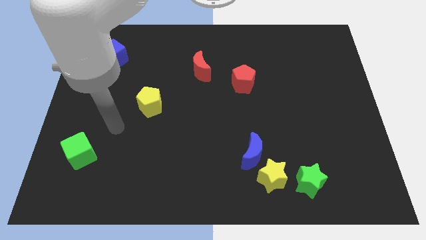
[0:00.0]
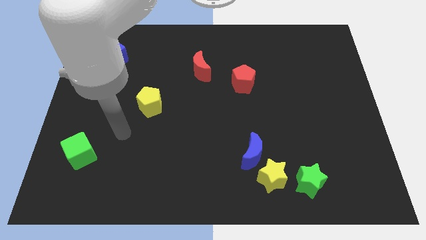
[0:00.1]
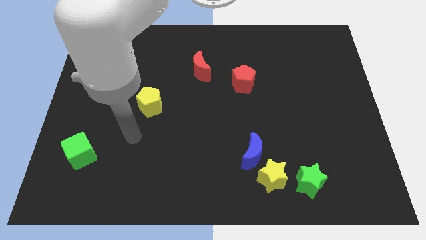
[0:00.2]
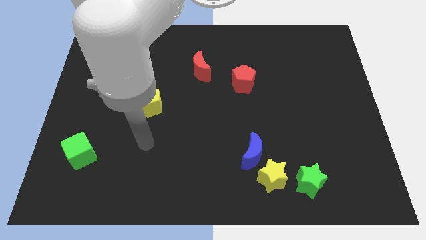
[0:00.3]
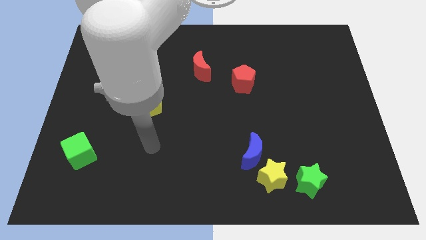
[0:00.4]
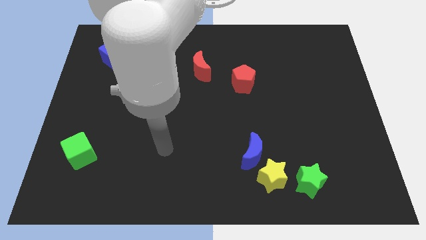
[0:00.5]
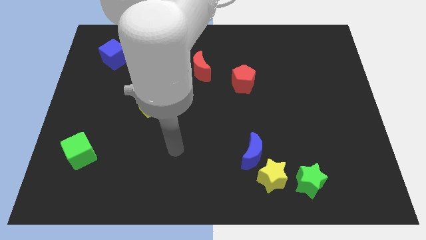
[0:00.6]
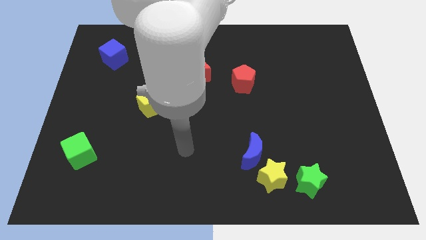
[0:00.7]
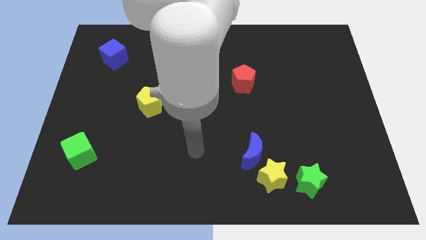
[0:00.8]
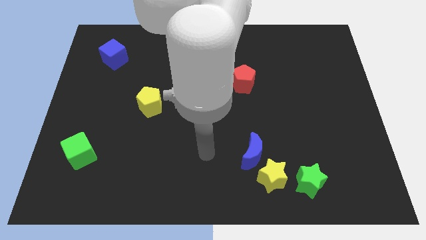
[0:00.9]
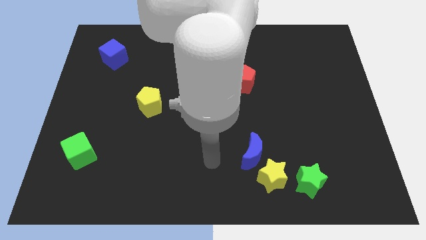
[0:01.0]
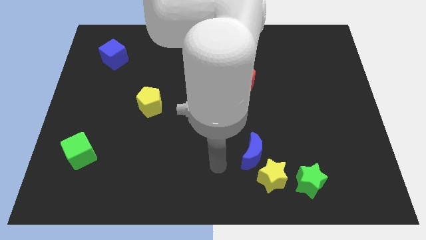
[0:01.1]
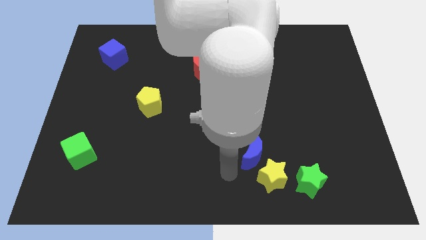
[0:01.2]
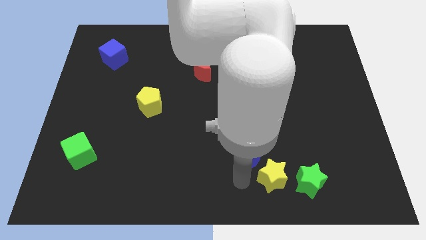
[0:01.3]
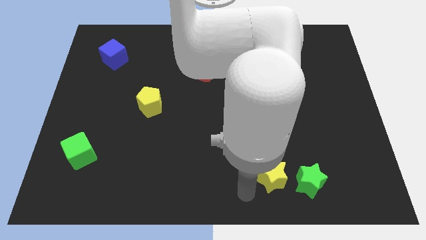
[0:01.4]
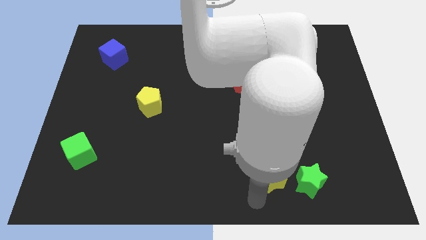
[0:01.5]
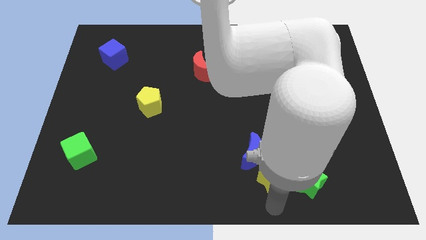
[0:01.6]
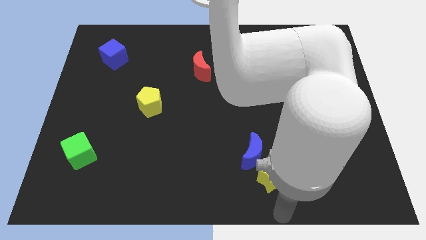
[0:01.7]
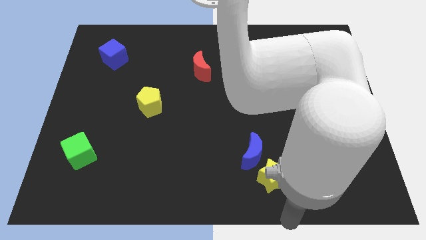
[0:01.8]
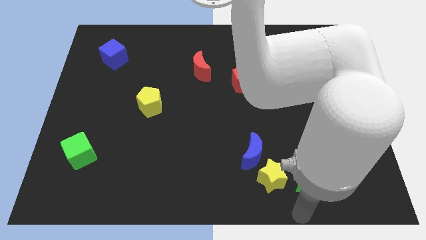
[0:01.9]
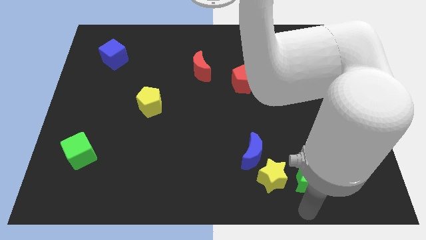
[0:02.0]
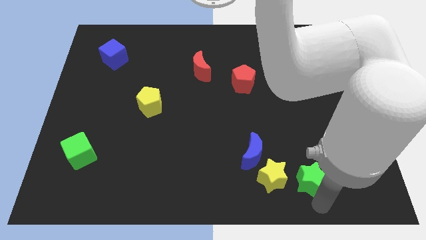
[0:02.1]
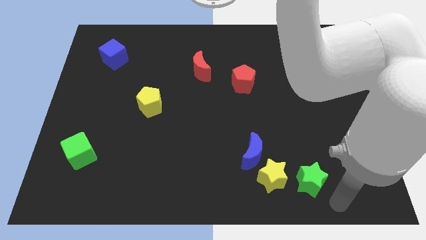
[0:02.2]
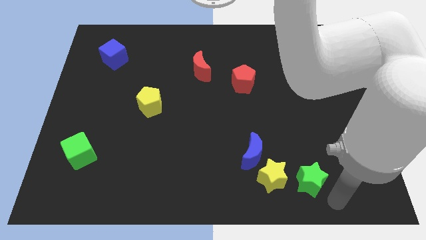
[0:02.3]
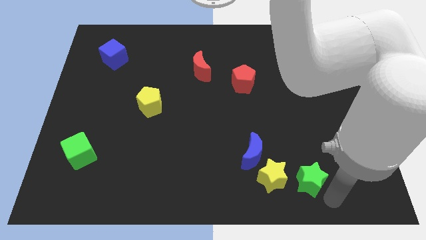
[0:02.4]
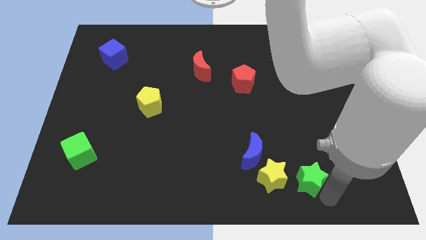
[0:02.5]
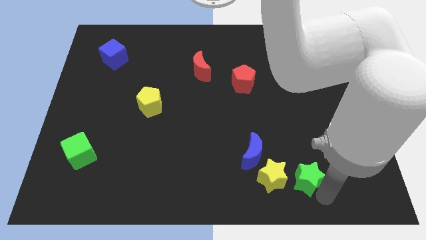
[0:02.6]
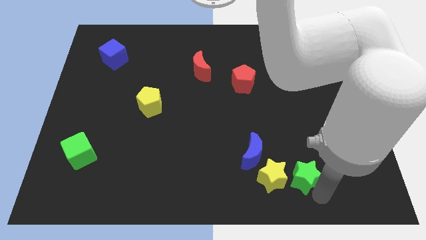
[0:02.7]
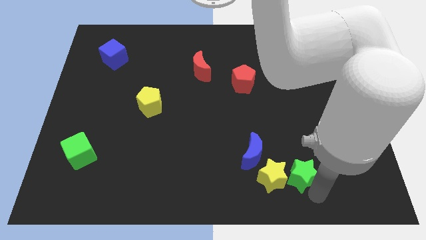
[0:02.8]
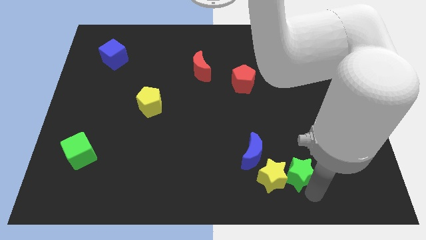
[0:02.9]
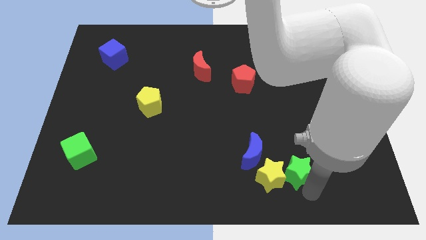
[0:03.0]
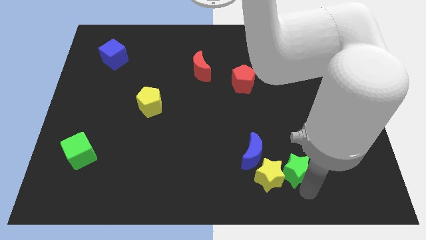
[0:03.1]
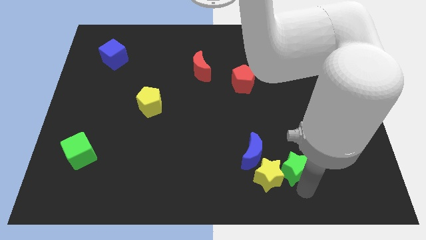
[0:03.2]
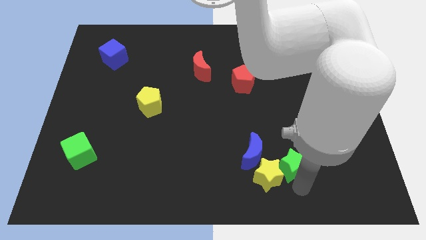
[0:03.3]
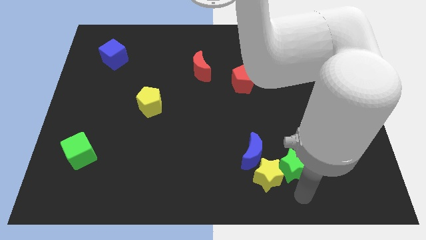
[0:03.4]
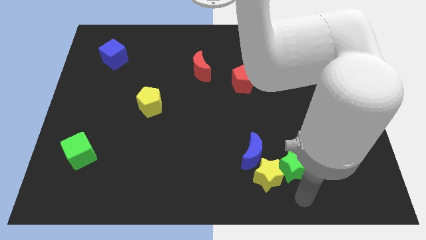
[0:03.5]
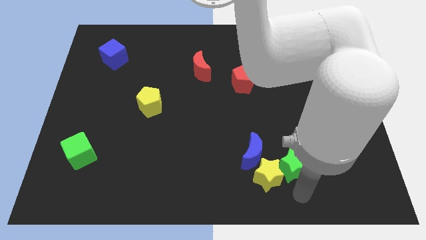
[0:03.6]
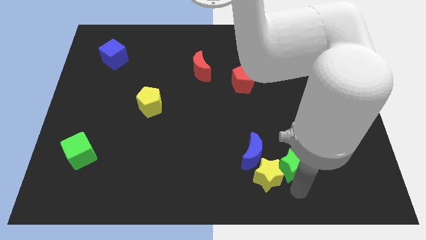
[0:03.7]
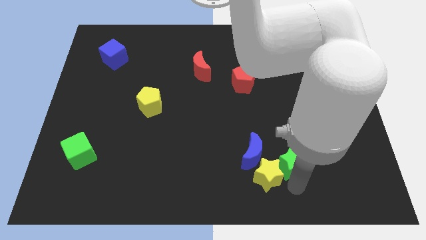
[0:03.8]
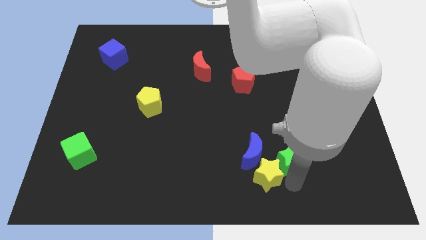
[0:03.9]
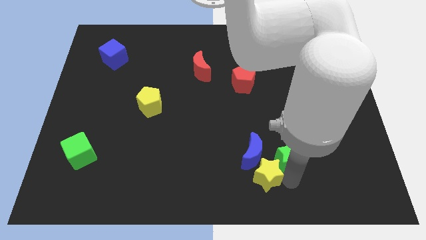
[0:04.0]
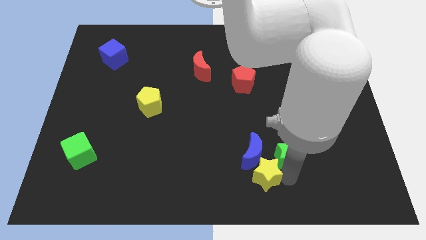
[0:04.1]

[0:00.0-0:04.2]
slightly slide the green star up and left diagonally

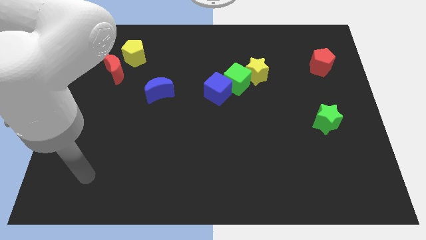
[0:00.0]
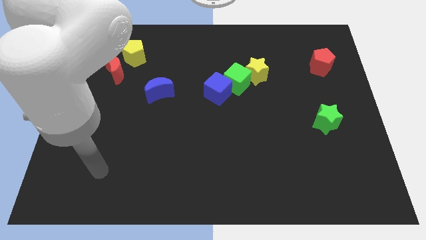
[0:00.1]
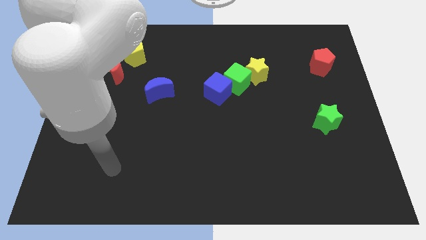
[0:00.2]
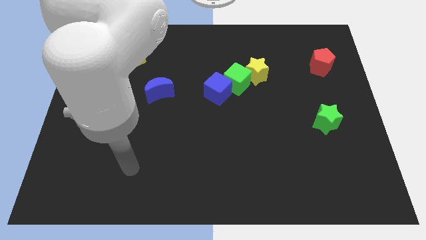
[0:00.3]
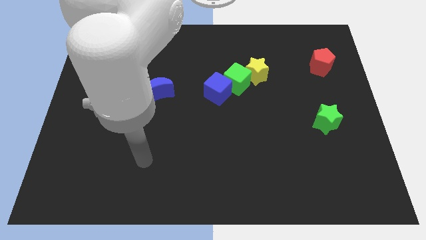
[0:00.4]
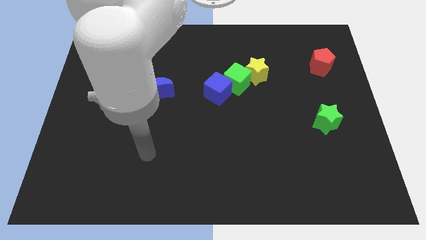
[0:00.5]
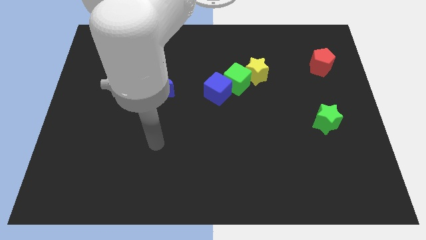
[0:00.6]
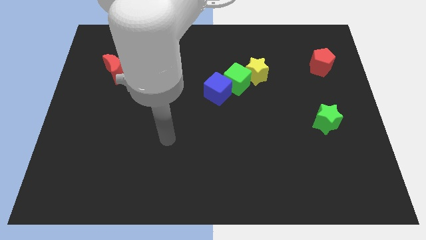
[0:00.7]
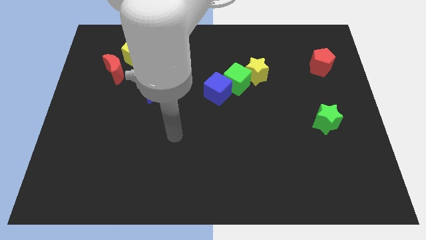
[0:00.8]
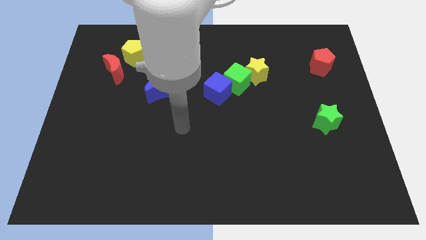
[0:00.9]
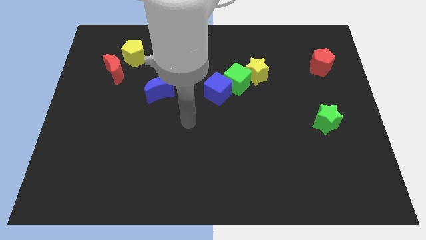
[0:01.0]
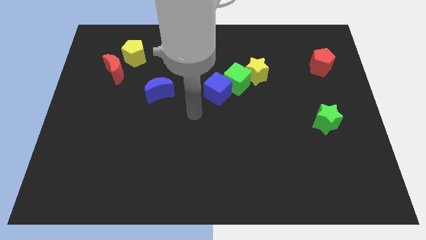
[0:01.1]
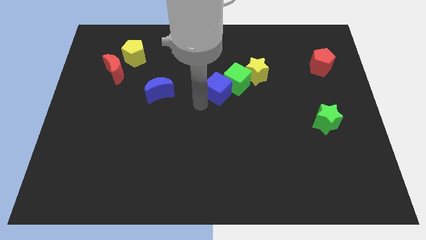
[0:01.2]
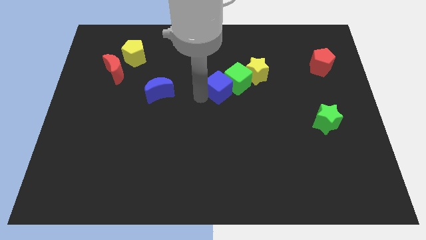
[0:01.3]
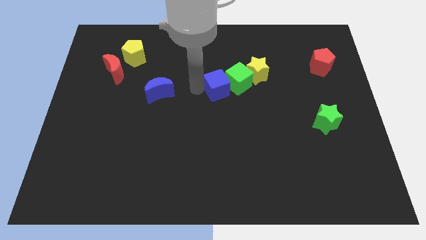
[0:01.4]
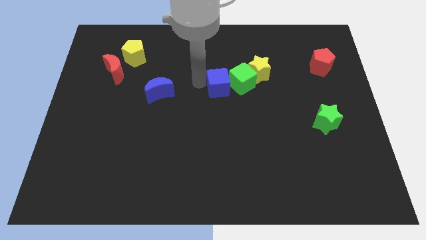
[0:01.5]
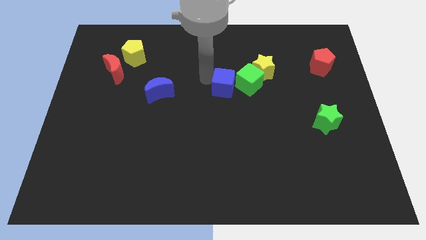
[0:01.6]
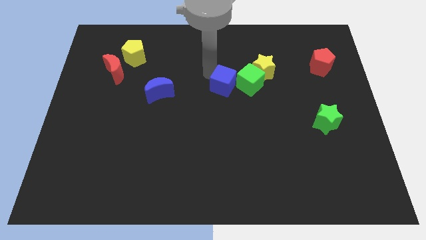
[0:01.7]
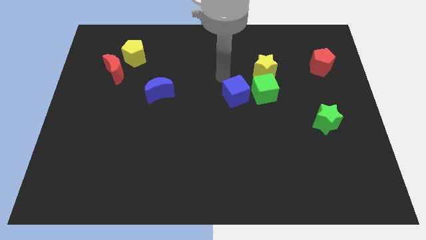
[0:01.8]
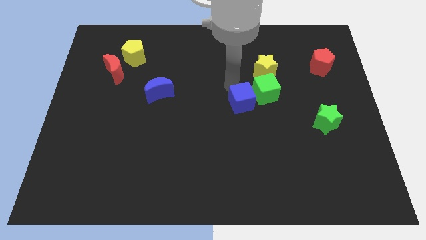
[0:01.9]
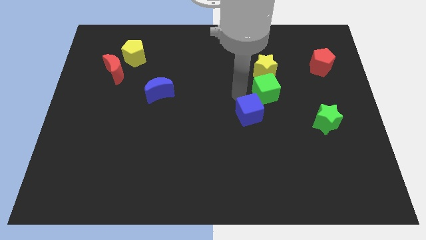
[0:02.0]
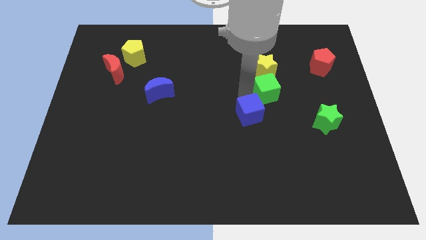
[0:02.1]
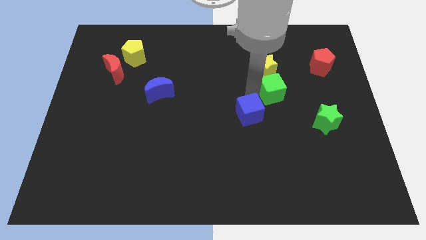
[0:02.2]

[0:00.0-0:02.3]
slightly move the green cube right

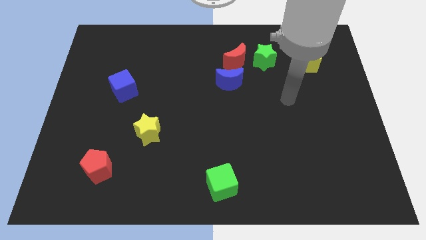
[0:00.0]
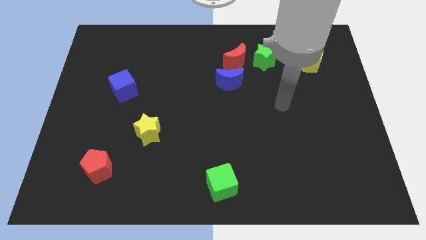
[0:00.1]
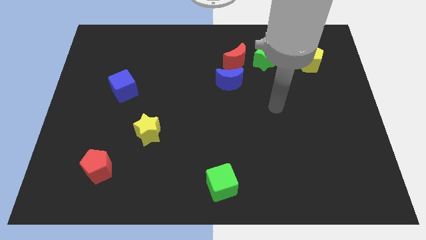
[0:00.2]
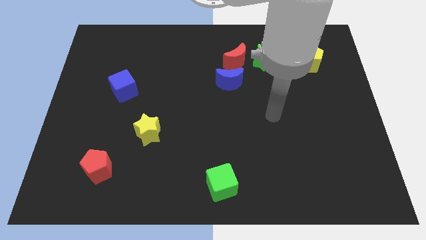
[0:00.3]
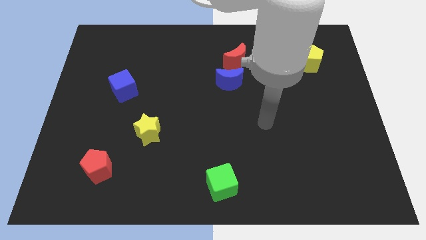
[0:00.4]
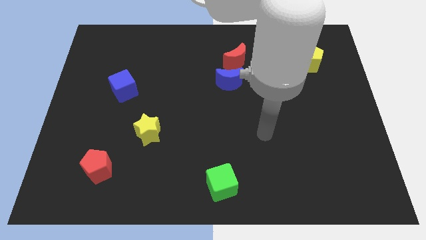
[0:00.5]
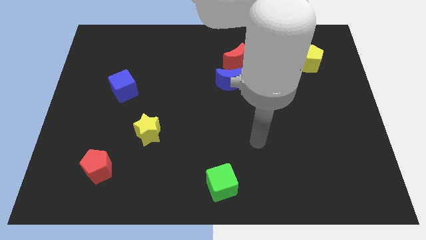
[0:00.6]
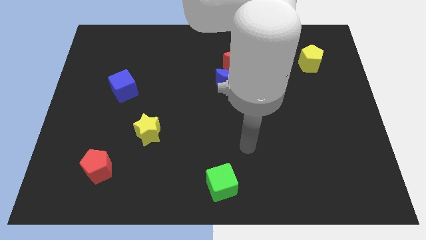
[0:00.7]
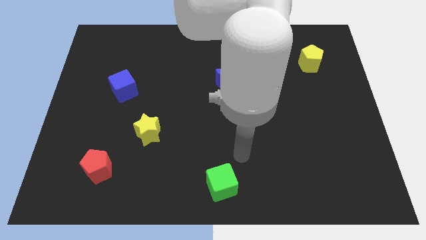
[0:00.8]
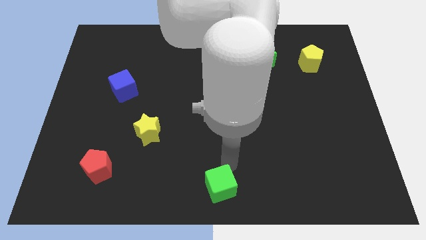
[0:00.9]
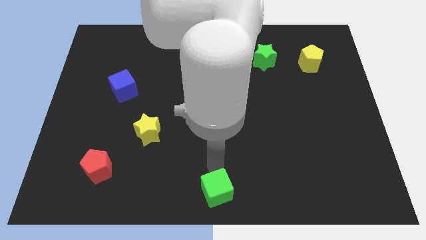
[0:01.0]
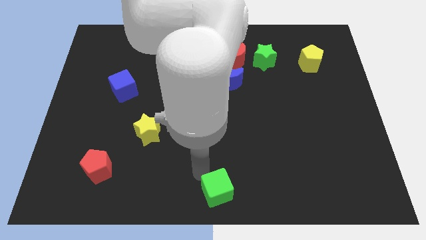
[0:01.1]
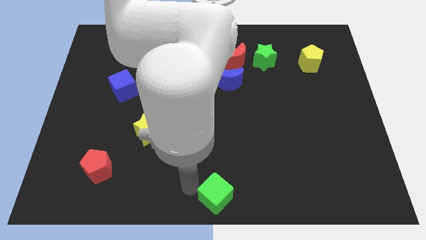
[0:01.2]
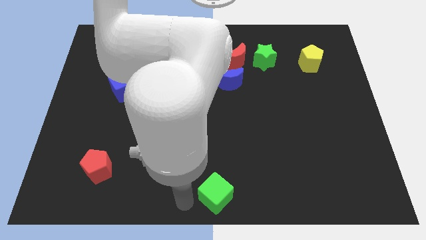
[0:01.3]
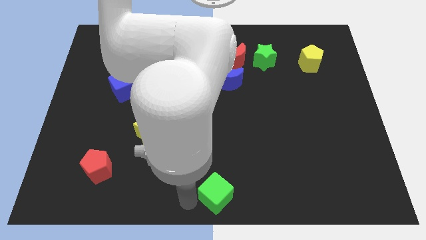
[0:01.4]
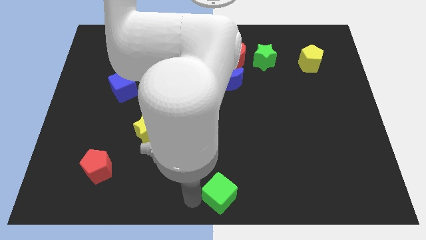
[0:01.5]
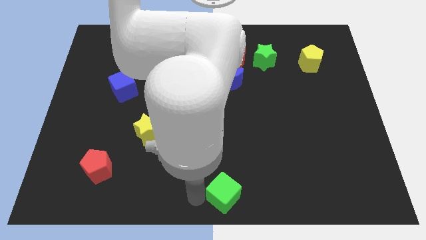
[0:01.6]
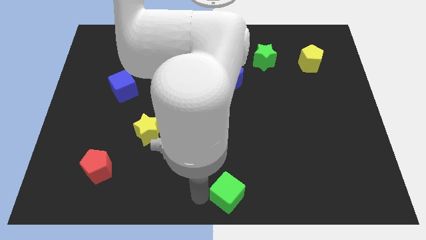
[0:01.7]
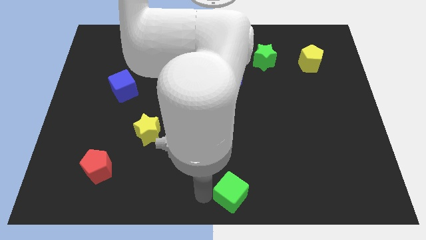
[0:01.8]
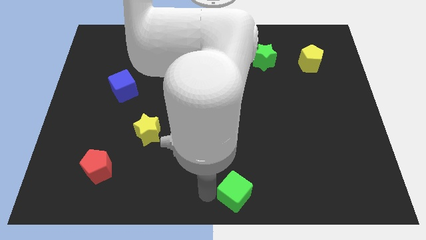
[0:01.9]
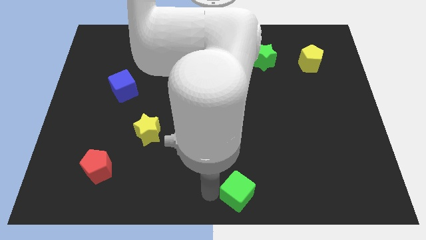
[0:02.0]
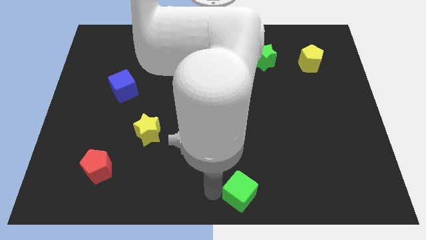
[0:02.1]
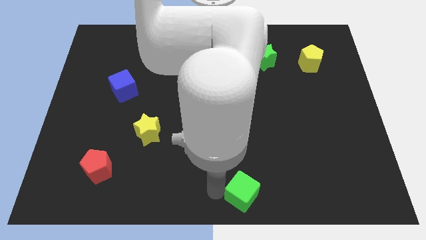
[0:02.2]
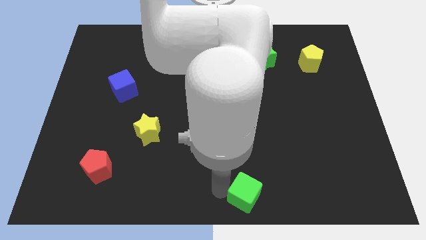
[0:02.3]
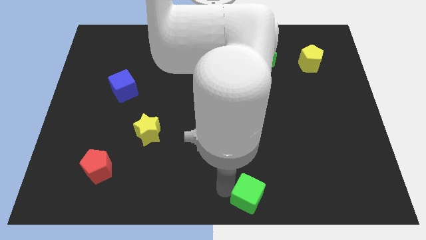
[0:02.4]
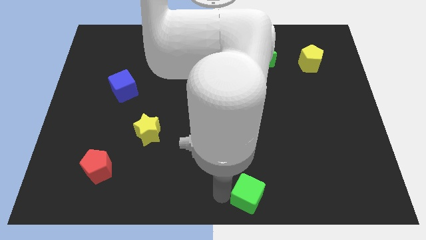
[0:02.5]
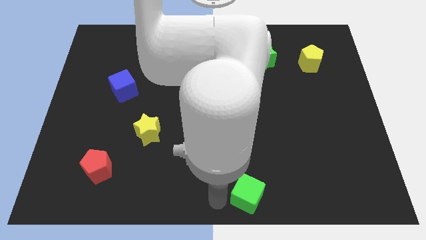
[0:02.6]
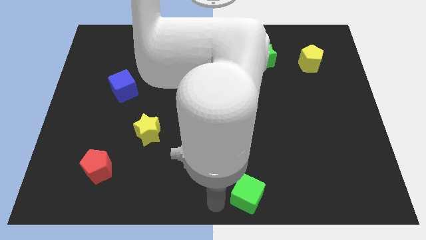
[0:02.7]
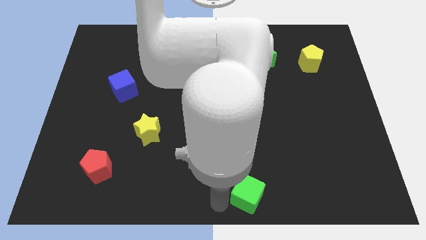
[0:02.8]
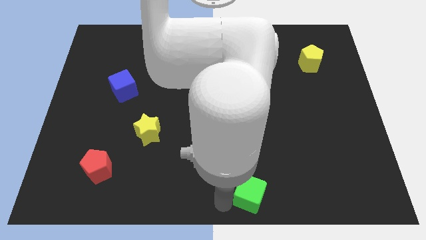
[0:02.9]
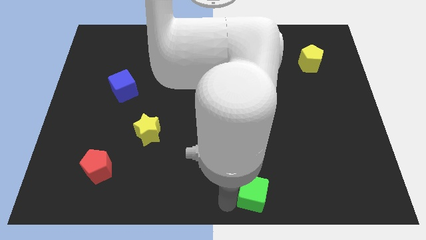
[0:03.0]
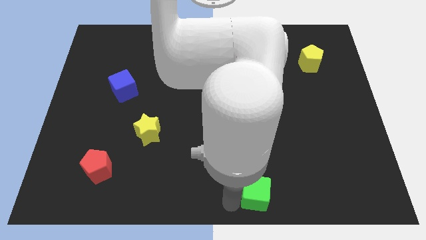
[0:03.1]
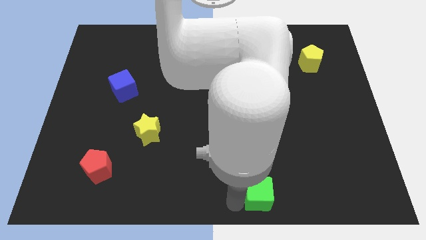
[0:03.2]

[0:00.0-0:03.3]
push the green cube a little to the right
